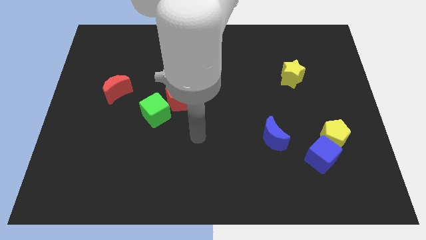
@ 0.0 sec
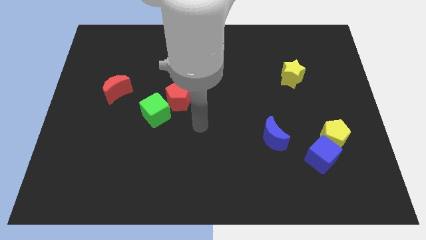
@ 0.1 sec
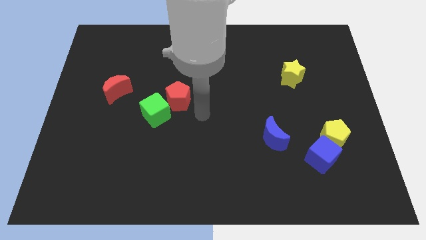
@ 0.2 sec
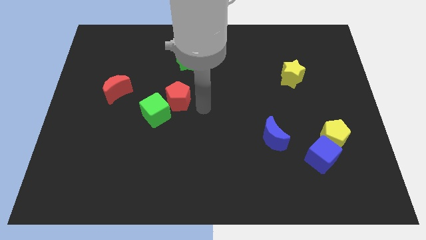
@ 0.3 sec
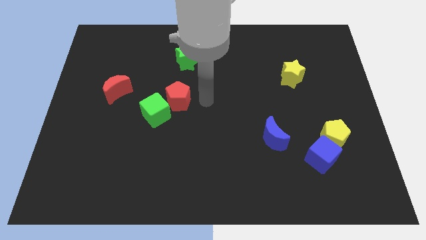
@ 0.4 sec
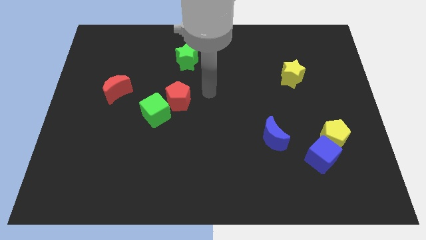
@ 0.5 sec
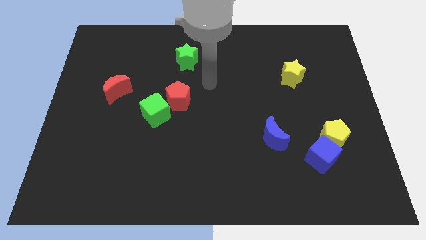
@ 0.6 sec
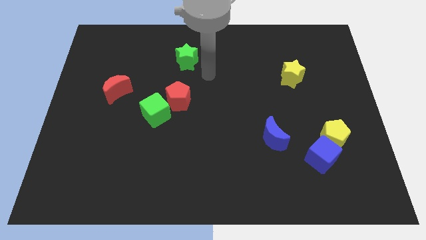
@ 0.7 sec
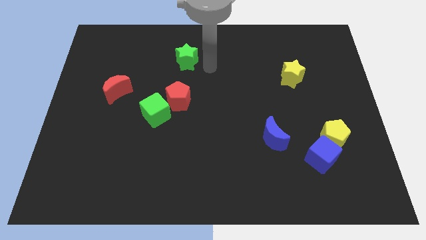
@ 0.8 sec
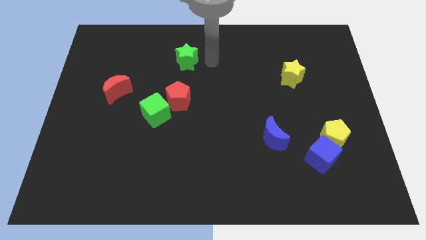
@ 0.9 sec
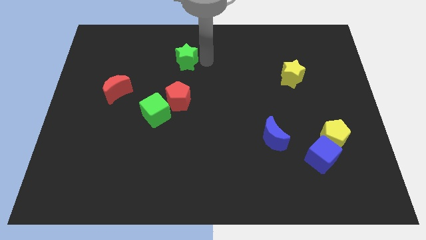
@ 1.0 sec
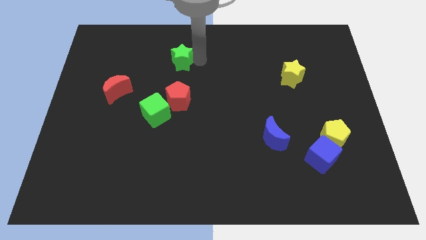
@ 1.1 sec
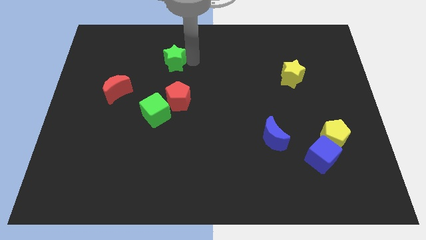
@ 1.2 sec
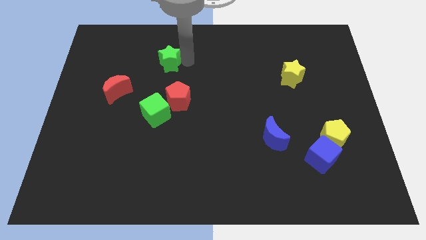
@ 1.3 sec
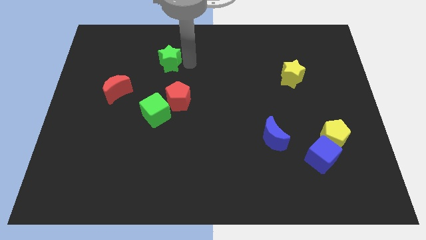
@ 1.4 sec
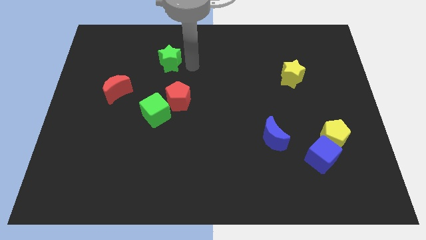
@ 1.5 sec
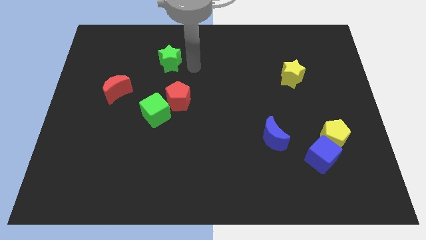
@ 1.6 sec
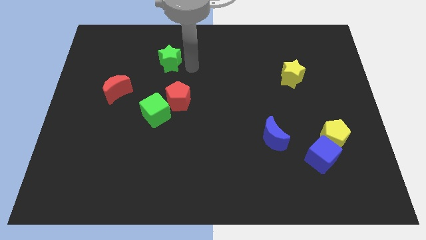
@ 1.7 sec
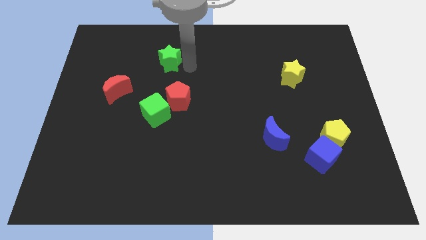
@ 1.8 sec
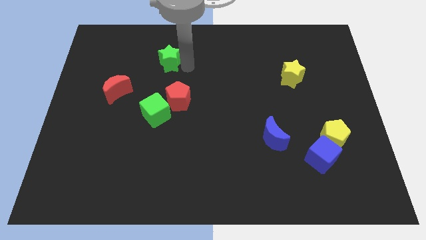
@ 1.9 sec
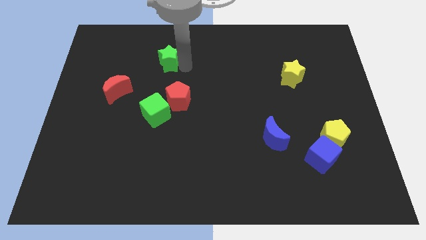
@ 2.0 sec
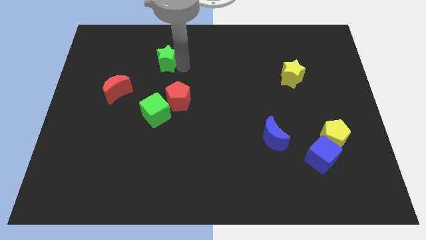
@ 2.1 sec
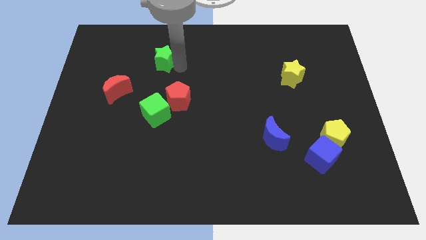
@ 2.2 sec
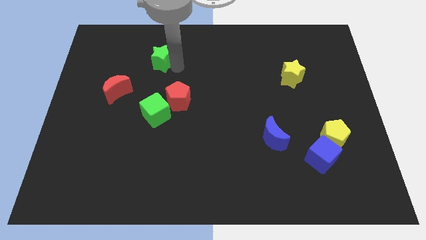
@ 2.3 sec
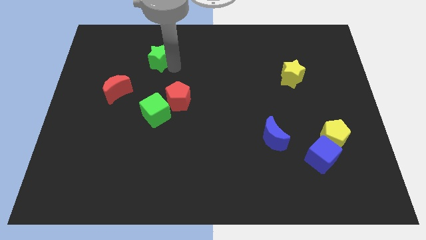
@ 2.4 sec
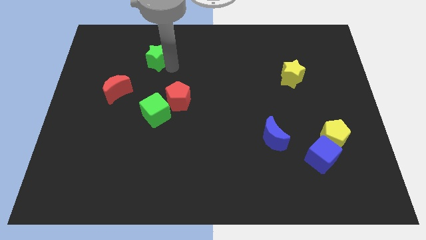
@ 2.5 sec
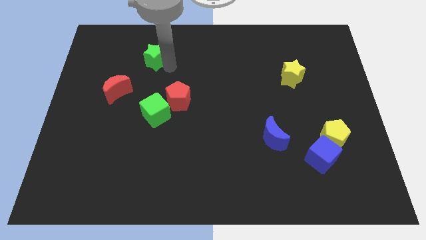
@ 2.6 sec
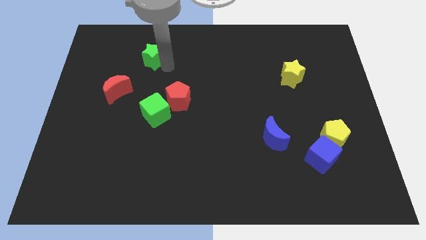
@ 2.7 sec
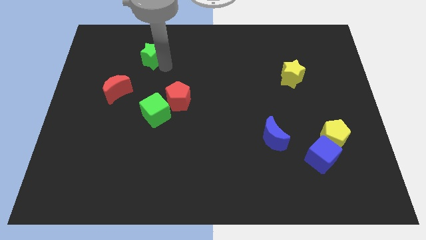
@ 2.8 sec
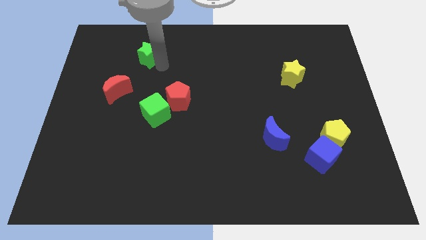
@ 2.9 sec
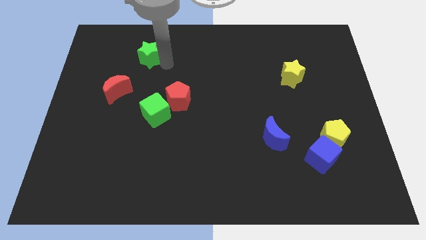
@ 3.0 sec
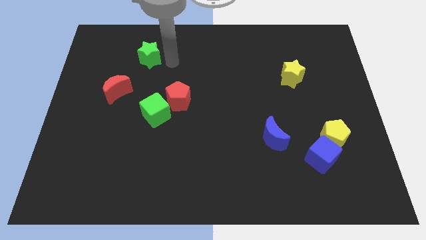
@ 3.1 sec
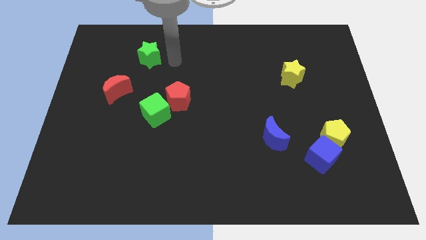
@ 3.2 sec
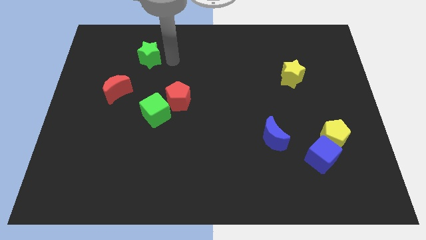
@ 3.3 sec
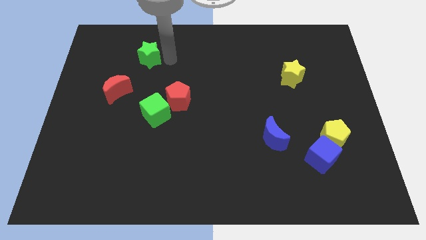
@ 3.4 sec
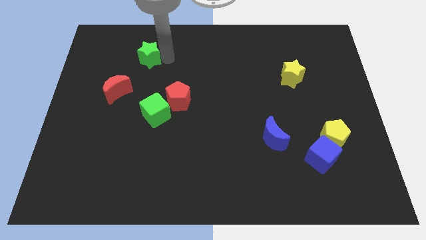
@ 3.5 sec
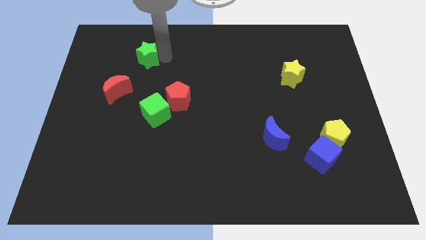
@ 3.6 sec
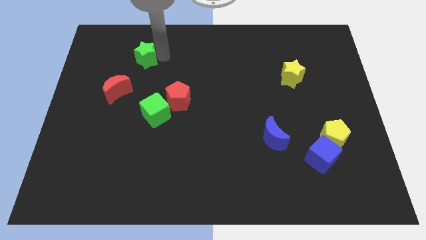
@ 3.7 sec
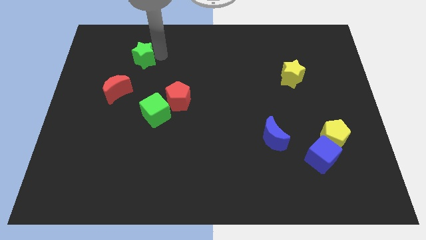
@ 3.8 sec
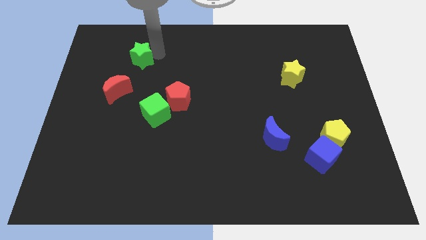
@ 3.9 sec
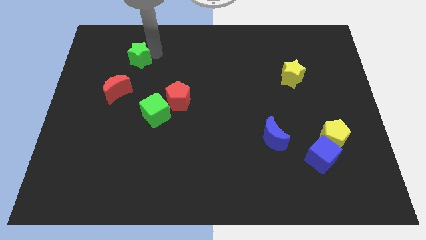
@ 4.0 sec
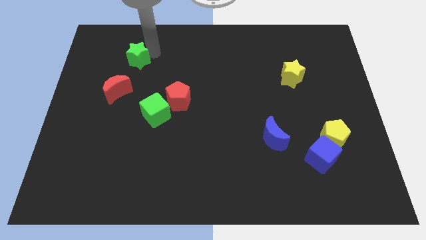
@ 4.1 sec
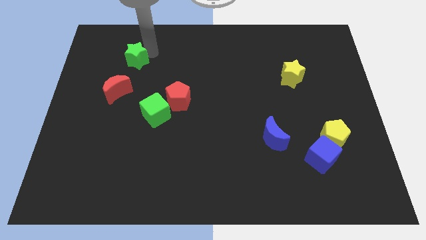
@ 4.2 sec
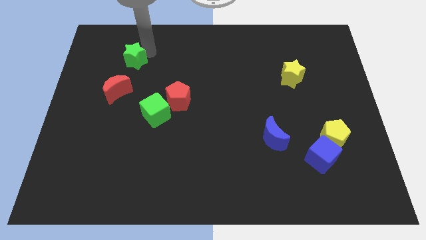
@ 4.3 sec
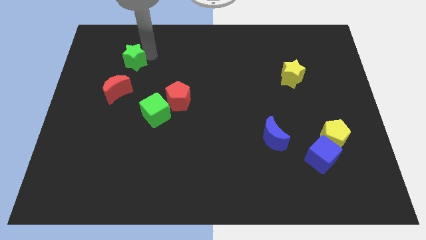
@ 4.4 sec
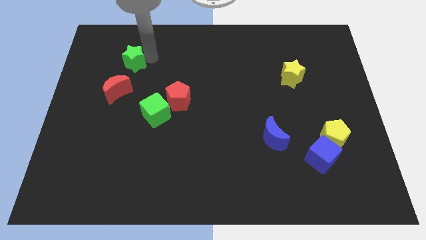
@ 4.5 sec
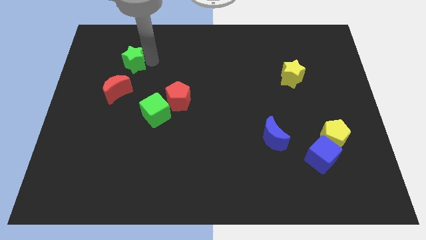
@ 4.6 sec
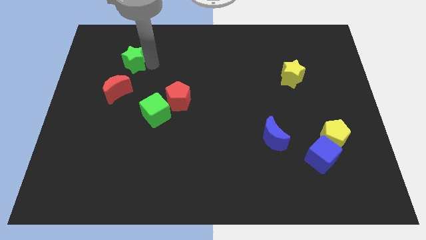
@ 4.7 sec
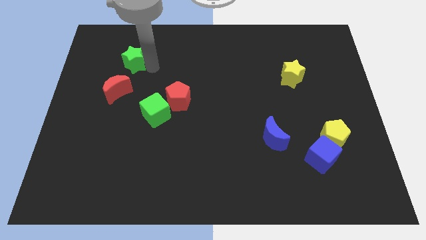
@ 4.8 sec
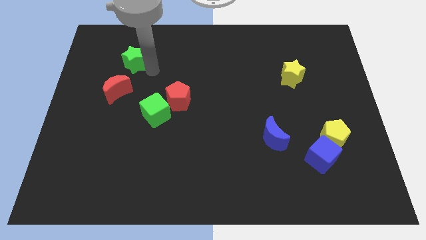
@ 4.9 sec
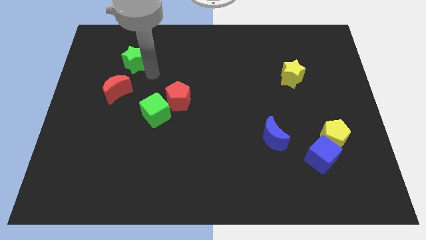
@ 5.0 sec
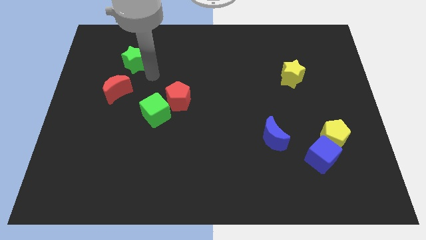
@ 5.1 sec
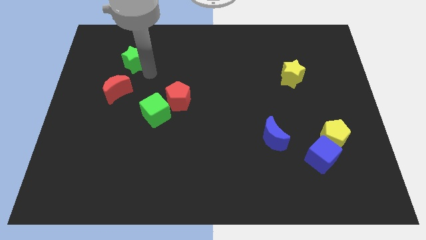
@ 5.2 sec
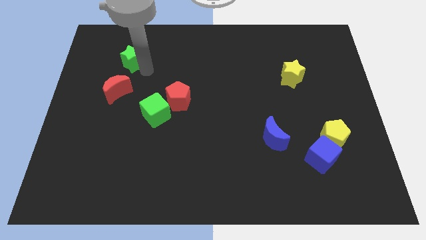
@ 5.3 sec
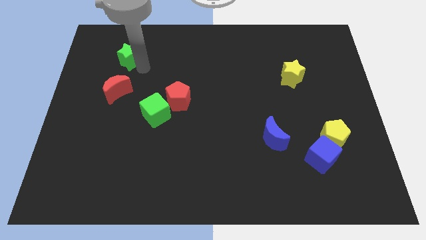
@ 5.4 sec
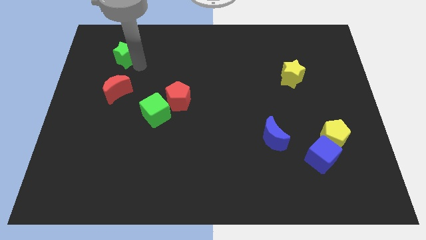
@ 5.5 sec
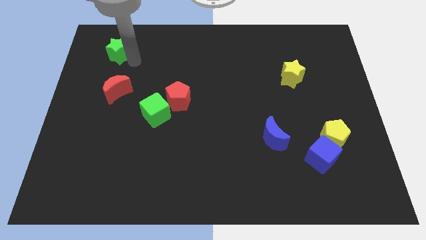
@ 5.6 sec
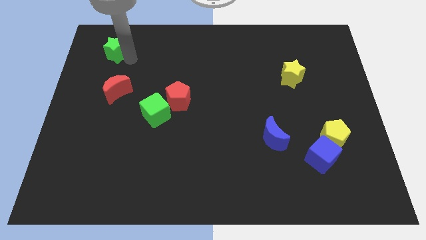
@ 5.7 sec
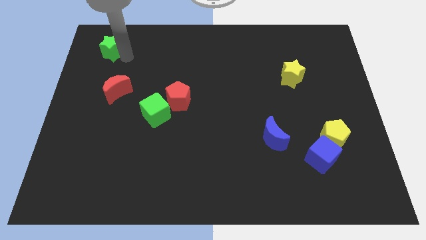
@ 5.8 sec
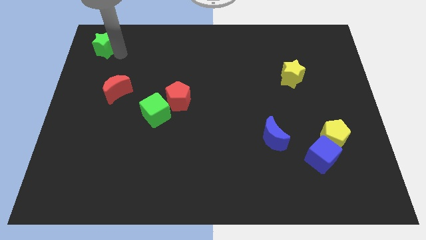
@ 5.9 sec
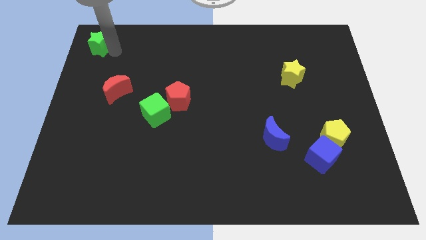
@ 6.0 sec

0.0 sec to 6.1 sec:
push the green star to the upper left corner

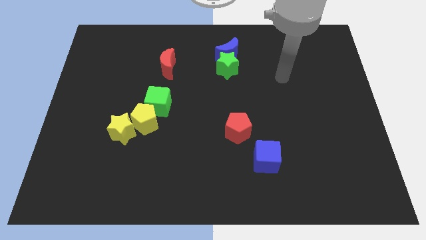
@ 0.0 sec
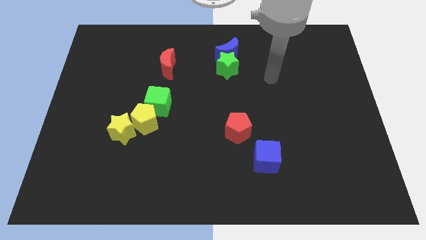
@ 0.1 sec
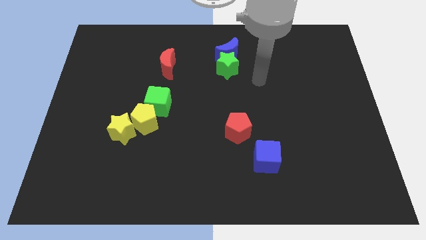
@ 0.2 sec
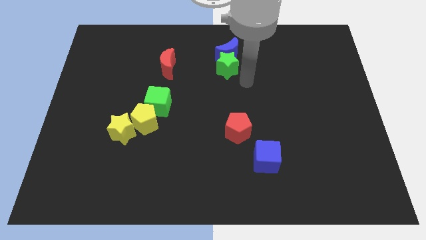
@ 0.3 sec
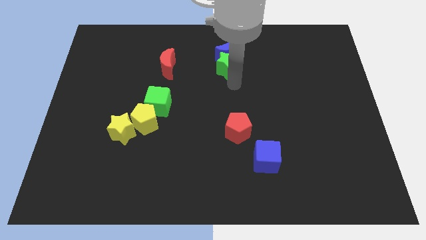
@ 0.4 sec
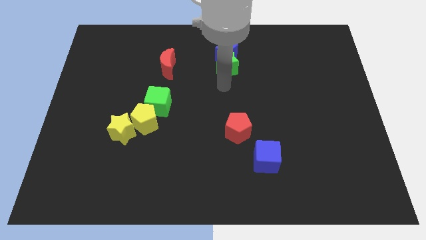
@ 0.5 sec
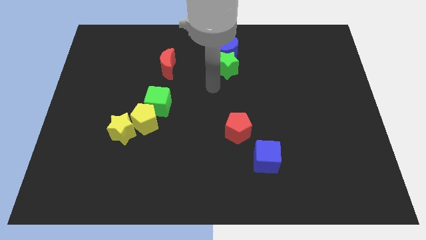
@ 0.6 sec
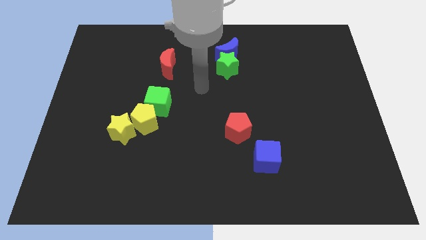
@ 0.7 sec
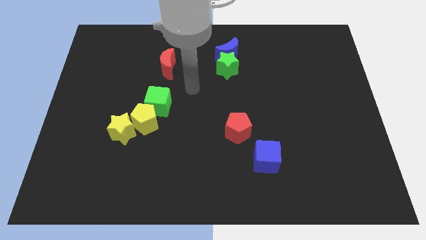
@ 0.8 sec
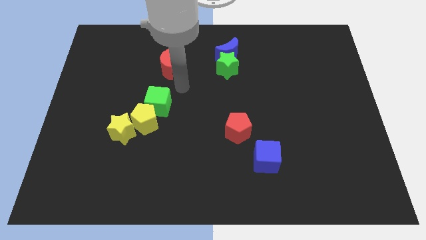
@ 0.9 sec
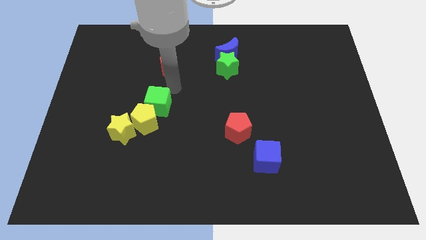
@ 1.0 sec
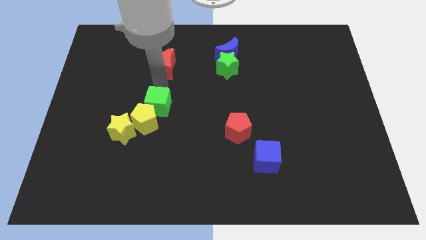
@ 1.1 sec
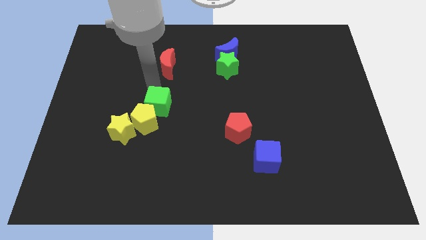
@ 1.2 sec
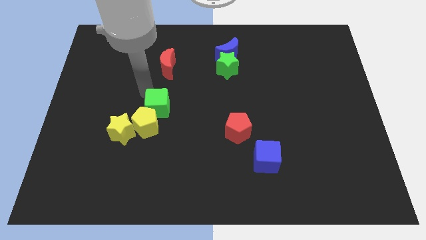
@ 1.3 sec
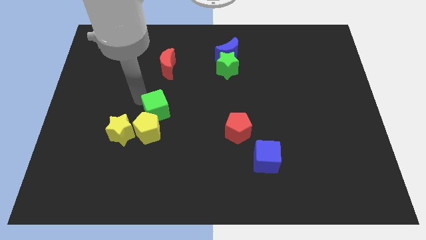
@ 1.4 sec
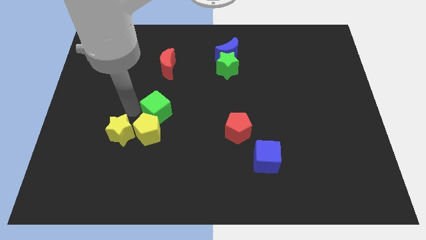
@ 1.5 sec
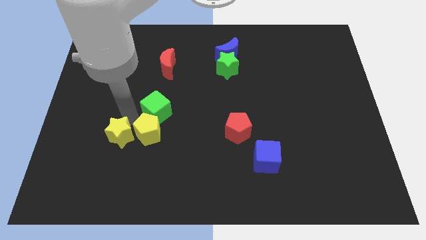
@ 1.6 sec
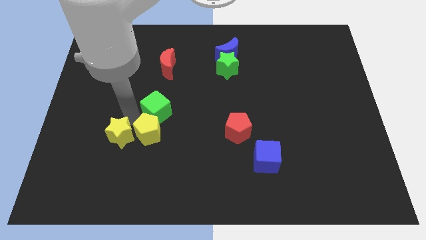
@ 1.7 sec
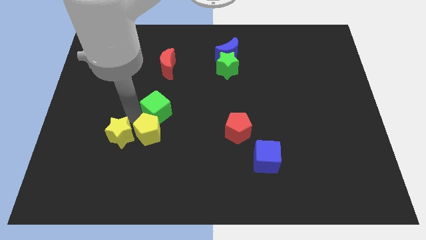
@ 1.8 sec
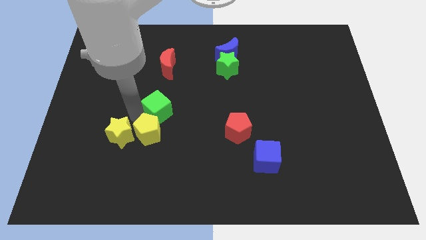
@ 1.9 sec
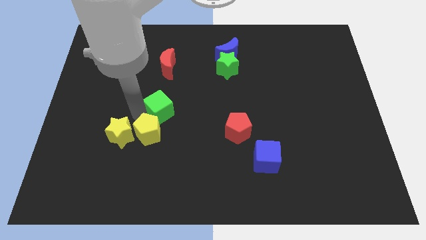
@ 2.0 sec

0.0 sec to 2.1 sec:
move the green cube to the center of the board
